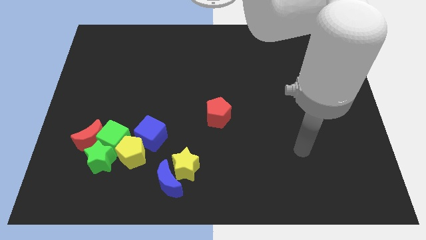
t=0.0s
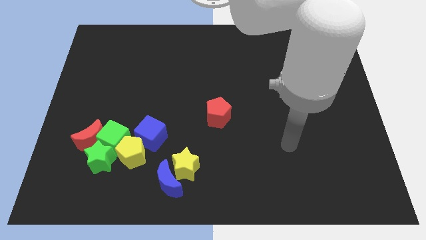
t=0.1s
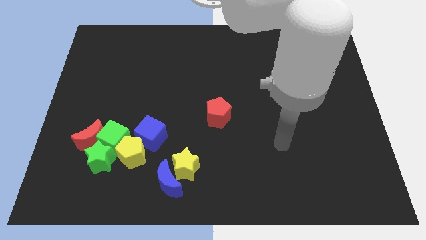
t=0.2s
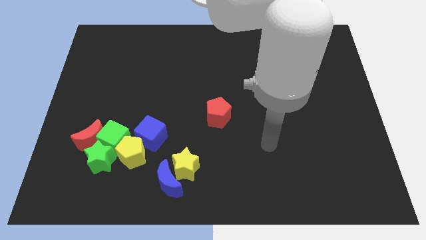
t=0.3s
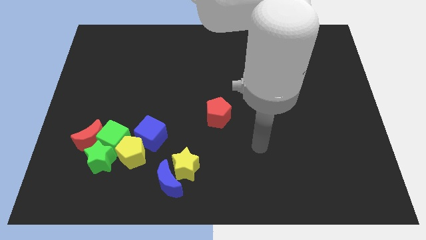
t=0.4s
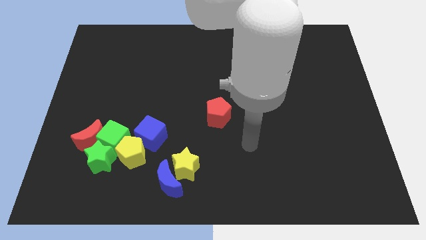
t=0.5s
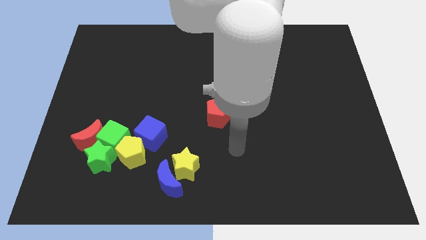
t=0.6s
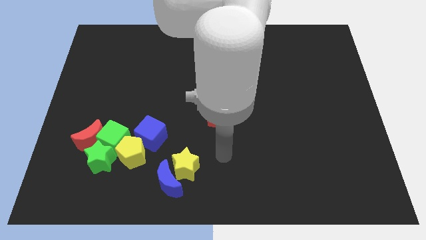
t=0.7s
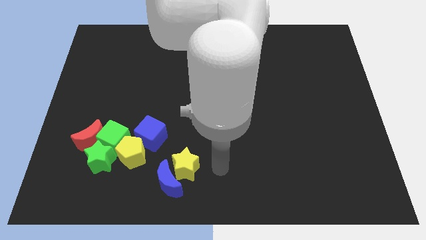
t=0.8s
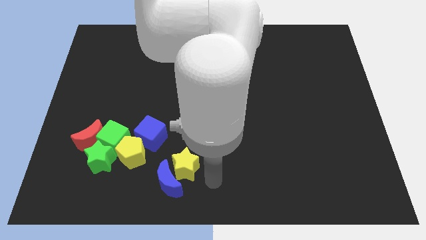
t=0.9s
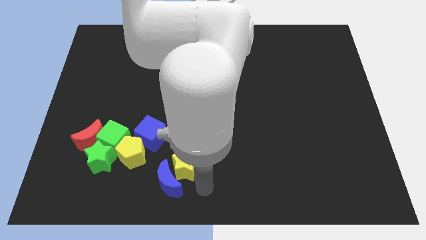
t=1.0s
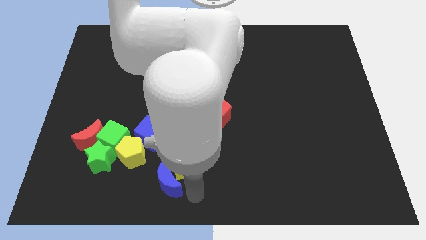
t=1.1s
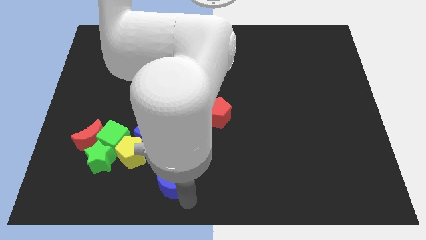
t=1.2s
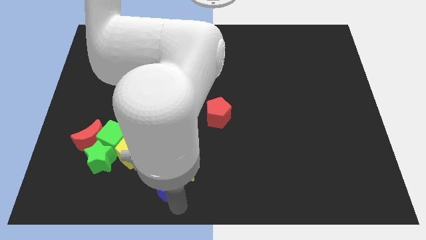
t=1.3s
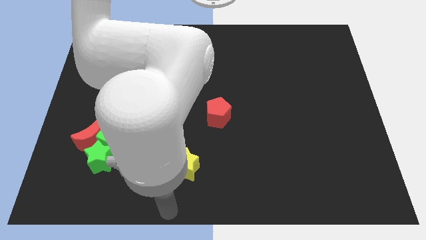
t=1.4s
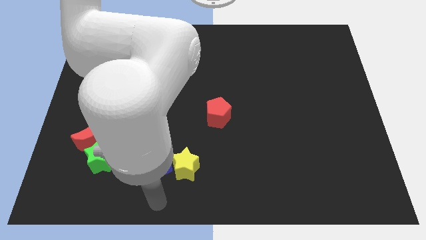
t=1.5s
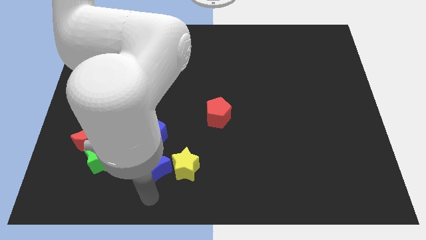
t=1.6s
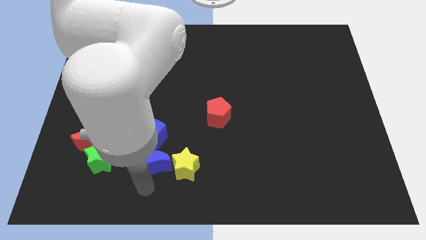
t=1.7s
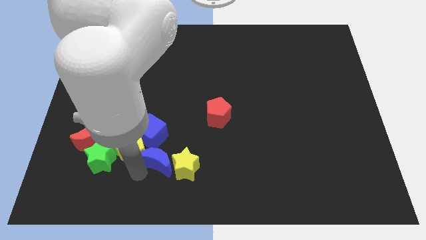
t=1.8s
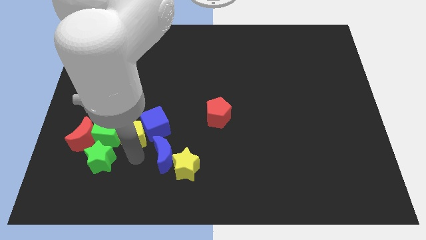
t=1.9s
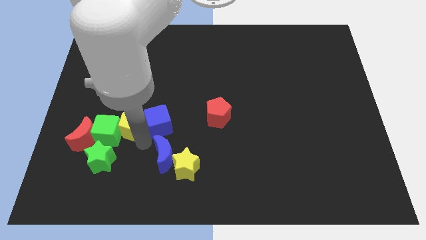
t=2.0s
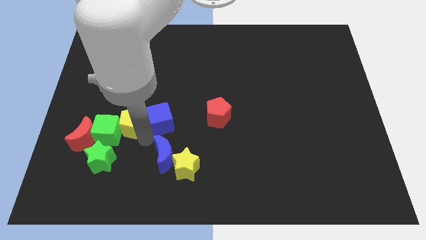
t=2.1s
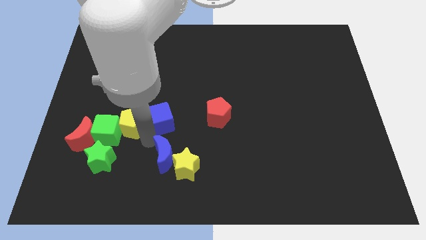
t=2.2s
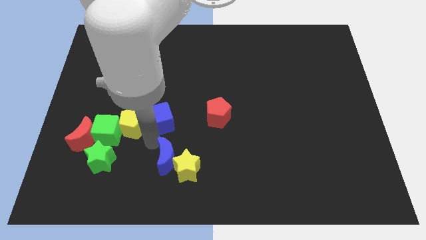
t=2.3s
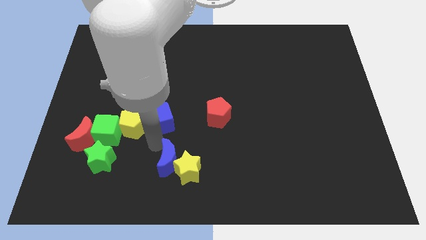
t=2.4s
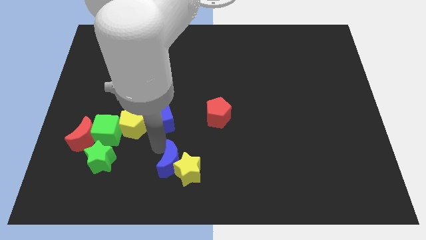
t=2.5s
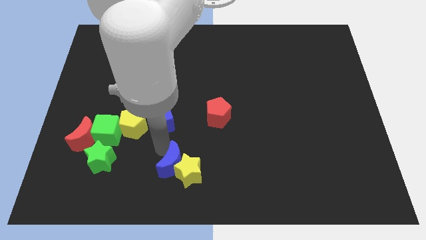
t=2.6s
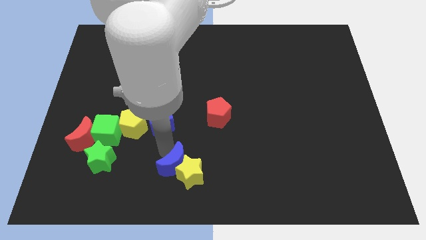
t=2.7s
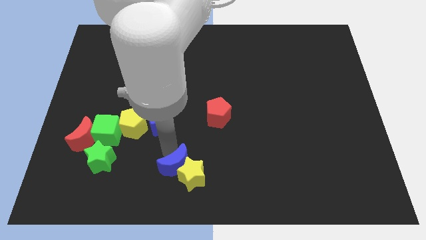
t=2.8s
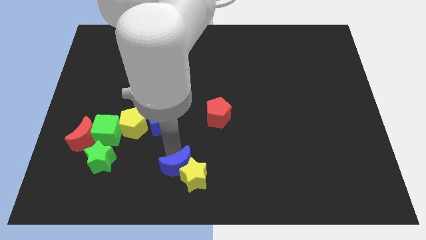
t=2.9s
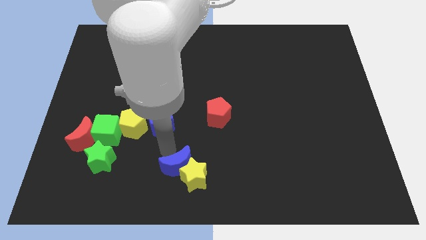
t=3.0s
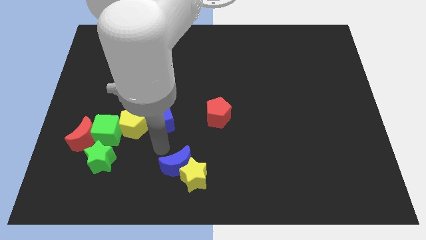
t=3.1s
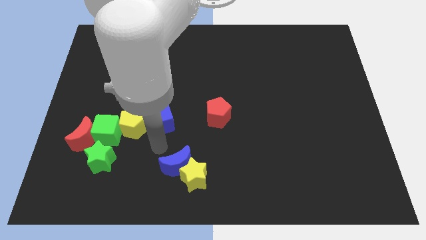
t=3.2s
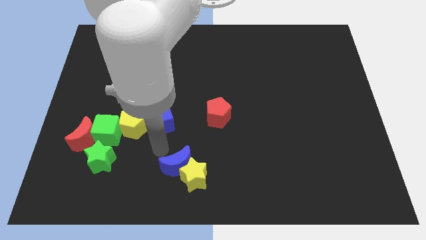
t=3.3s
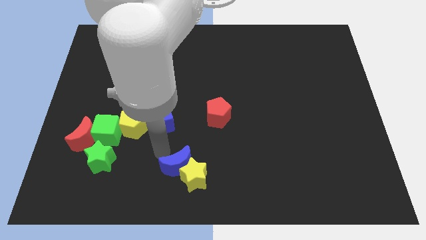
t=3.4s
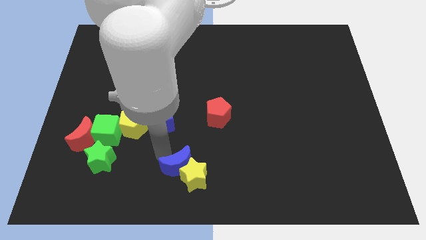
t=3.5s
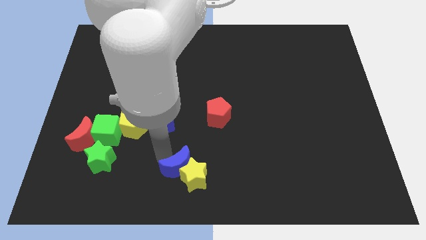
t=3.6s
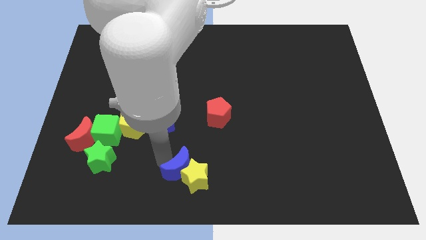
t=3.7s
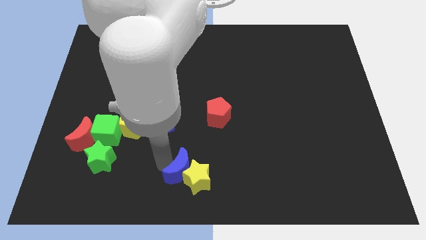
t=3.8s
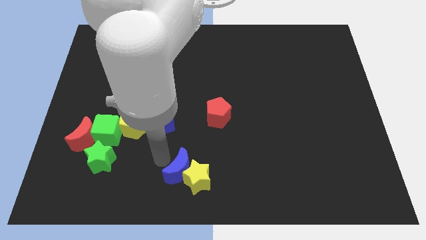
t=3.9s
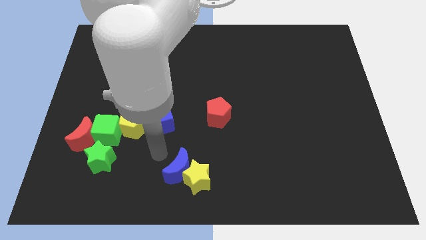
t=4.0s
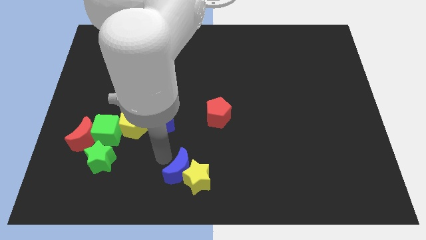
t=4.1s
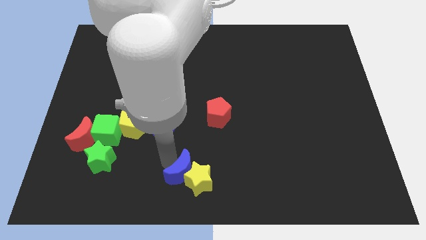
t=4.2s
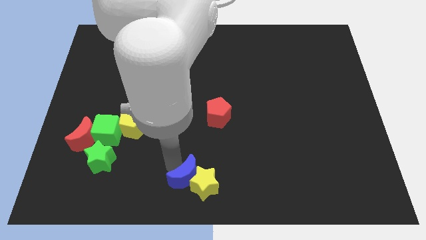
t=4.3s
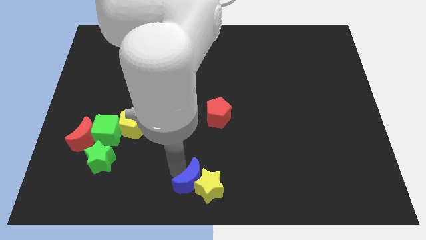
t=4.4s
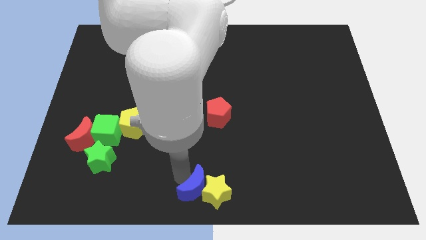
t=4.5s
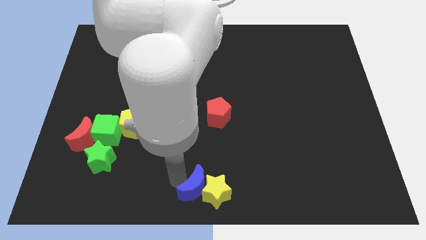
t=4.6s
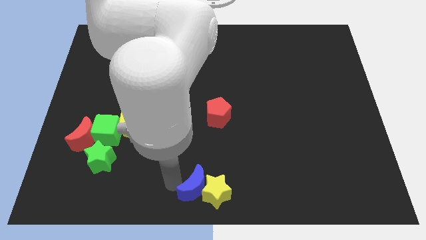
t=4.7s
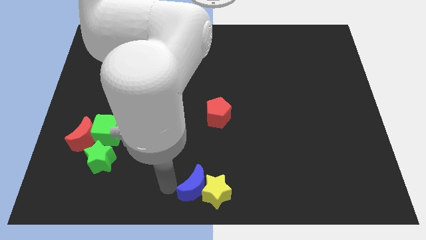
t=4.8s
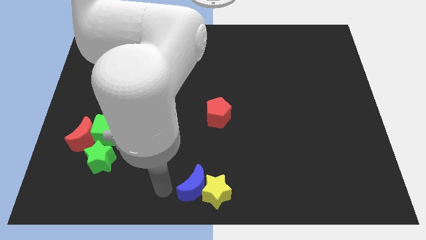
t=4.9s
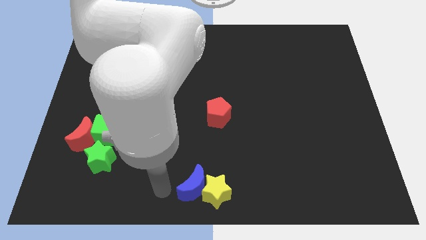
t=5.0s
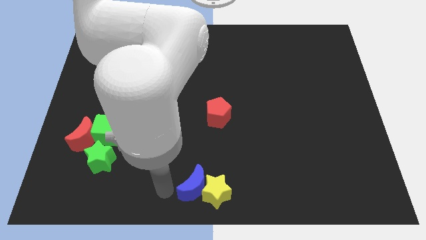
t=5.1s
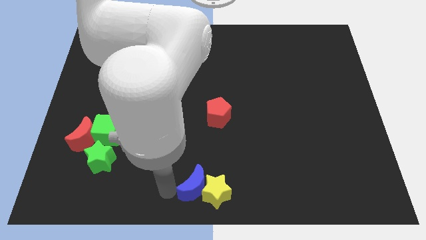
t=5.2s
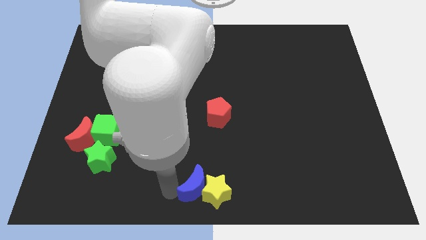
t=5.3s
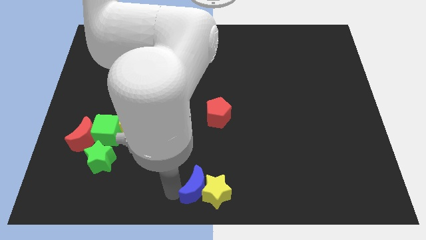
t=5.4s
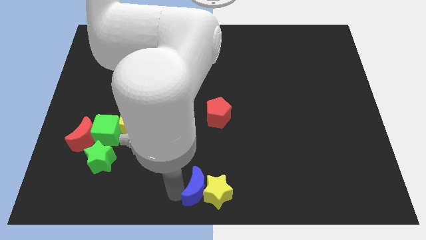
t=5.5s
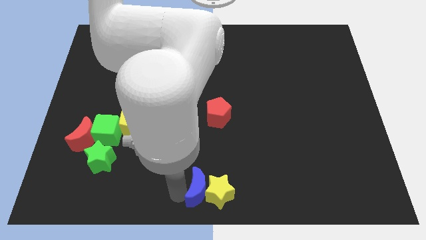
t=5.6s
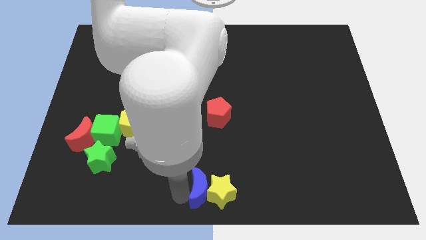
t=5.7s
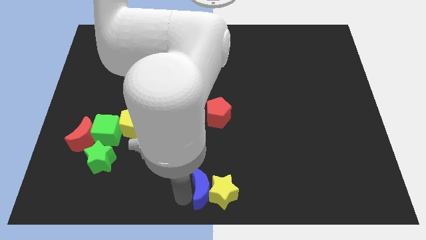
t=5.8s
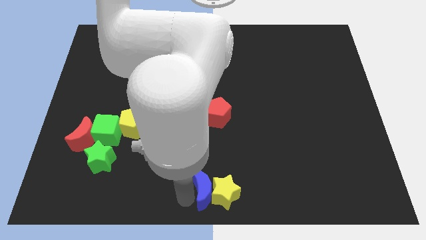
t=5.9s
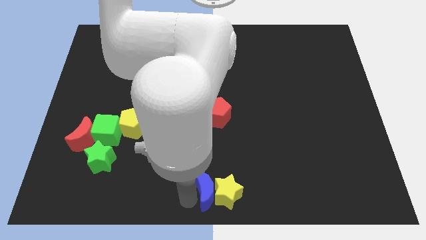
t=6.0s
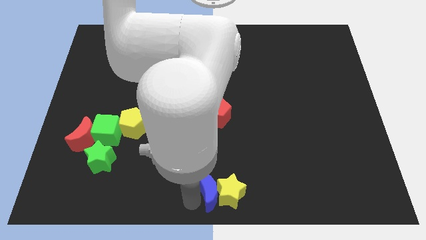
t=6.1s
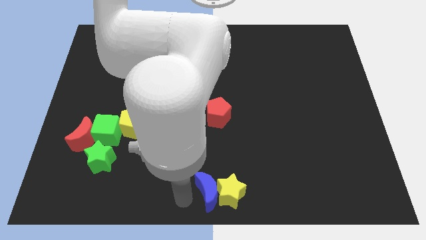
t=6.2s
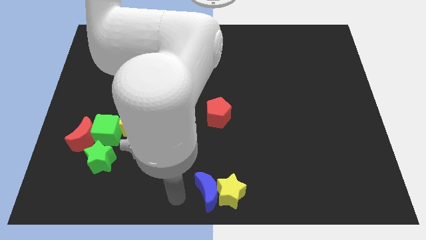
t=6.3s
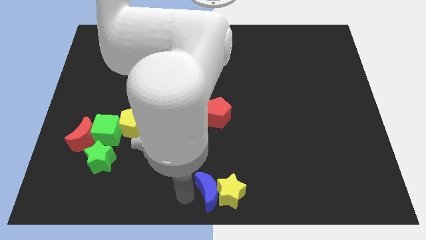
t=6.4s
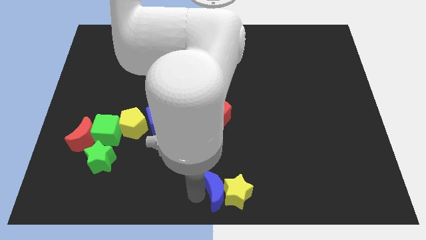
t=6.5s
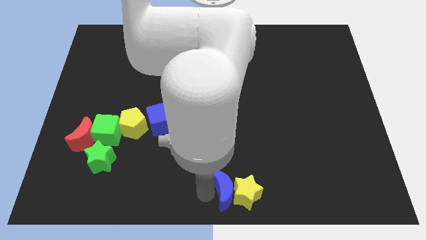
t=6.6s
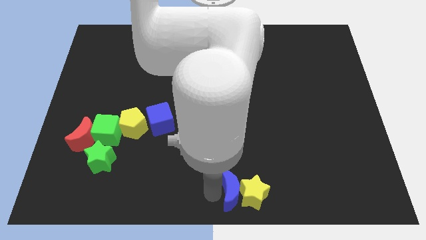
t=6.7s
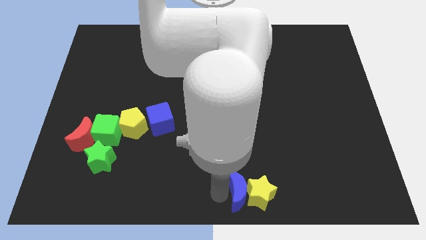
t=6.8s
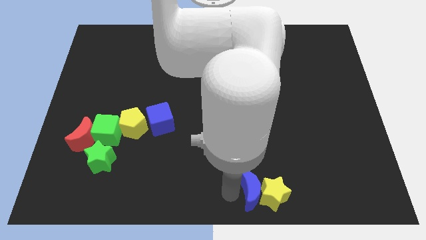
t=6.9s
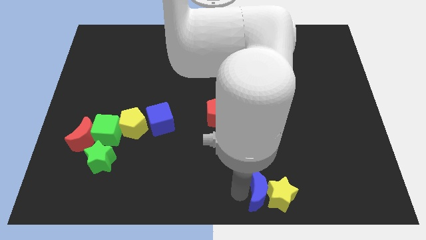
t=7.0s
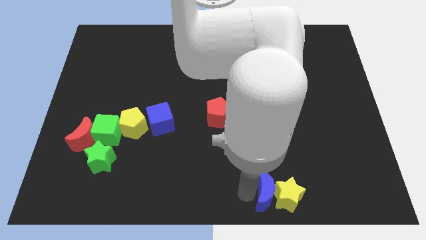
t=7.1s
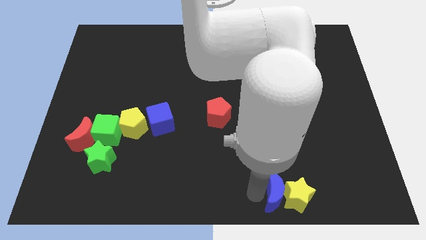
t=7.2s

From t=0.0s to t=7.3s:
slide the blue moon to the right

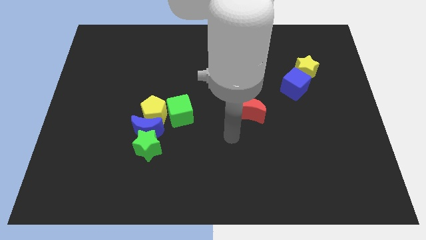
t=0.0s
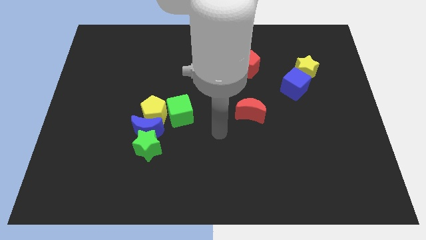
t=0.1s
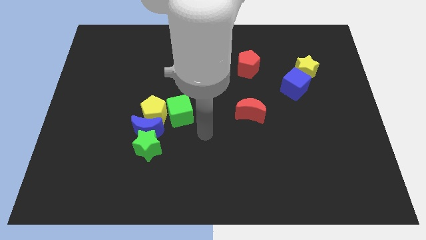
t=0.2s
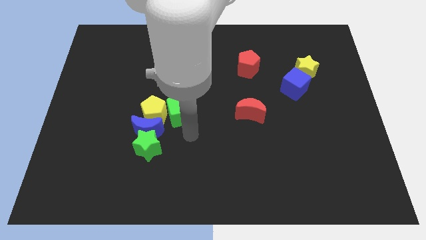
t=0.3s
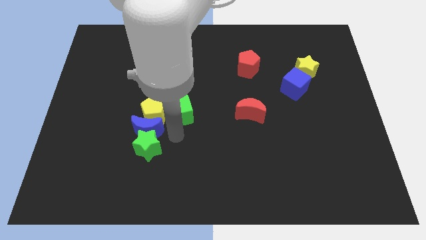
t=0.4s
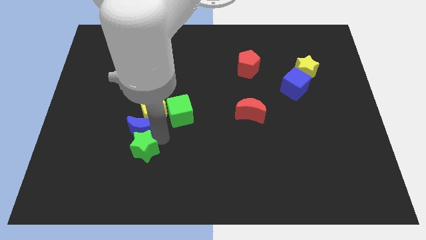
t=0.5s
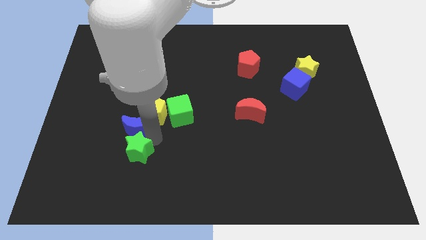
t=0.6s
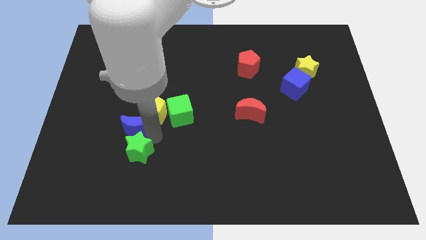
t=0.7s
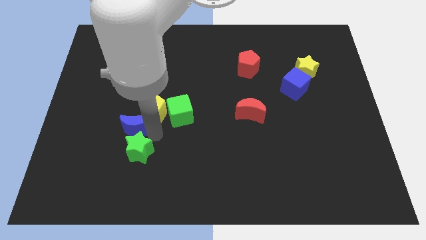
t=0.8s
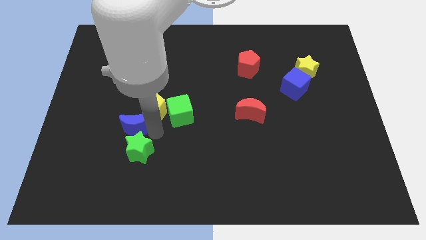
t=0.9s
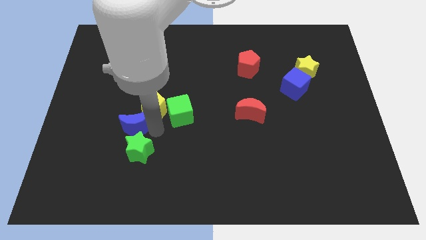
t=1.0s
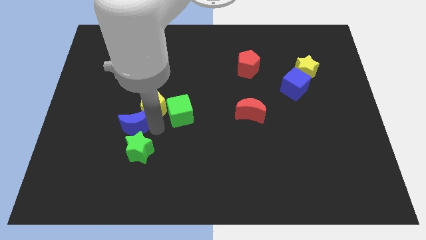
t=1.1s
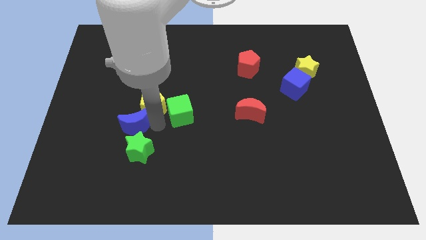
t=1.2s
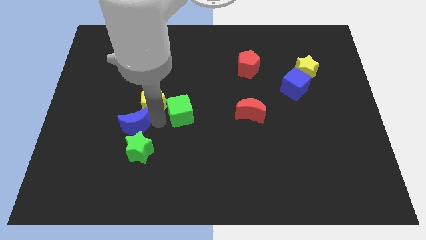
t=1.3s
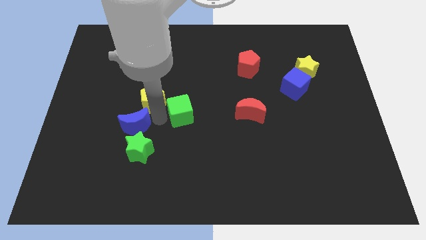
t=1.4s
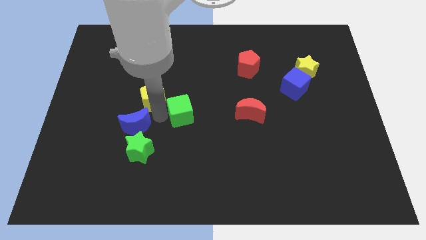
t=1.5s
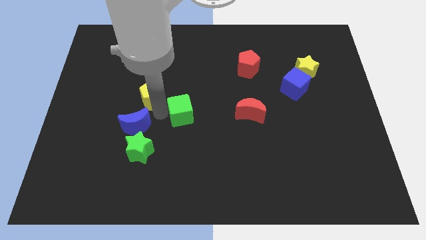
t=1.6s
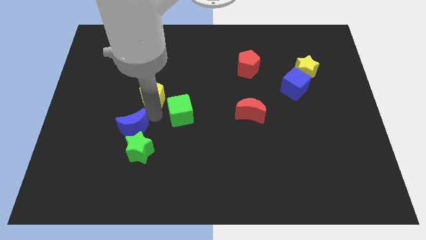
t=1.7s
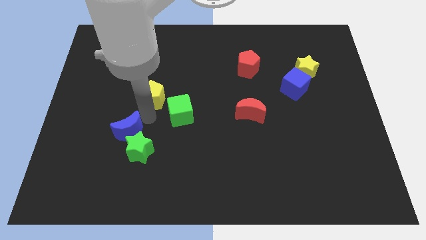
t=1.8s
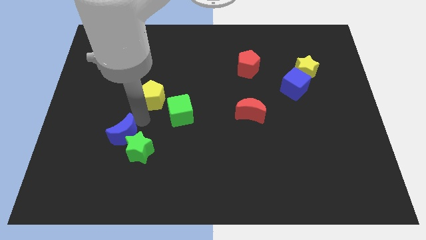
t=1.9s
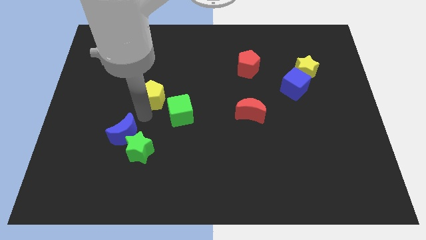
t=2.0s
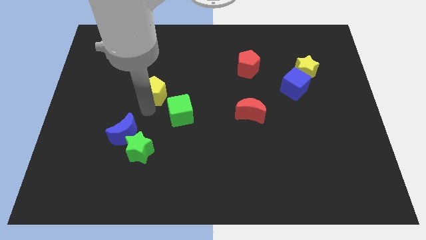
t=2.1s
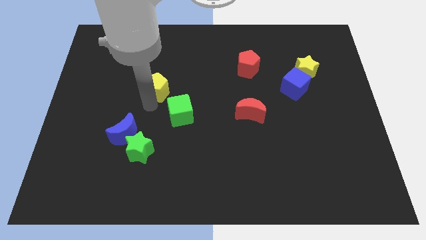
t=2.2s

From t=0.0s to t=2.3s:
slightly move the yellow pentagon up
